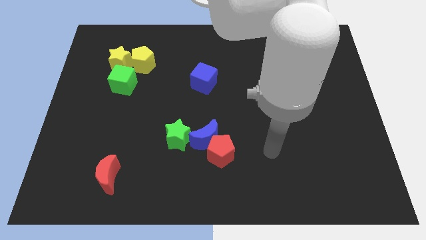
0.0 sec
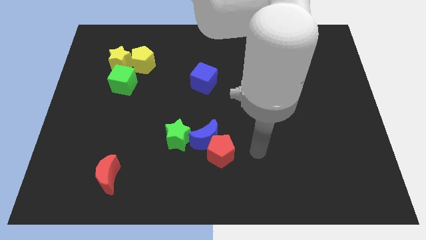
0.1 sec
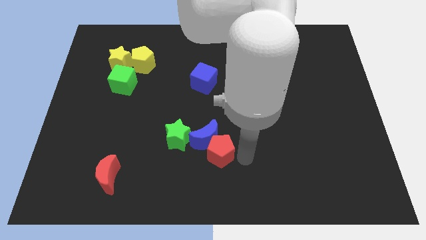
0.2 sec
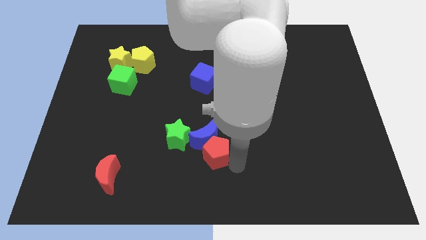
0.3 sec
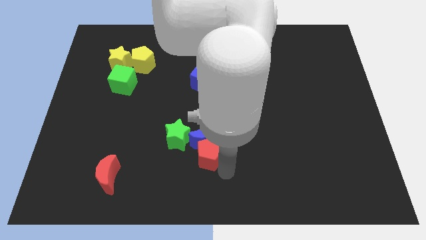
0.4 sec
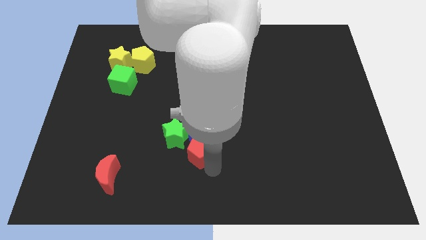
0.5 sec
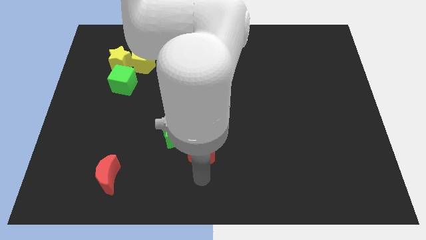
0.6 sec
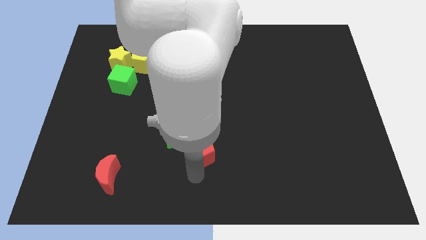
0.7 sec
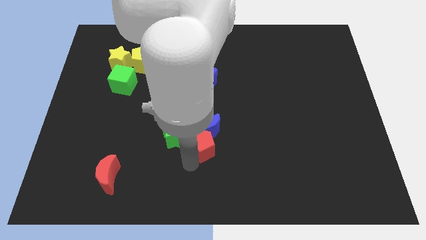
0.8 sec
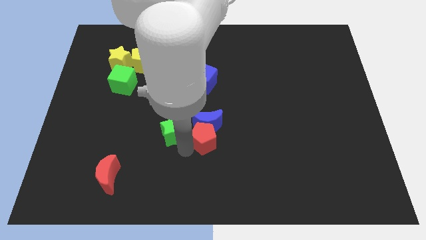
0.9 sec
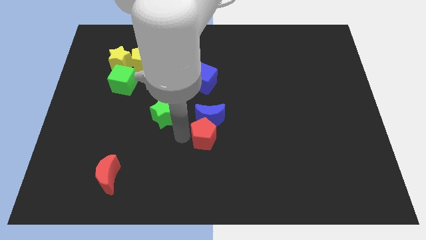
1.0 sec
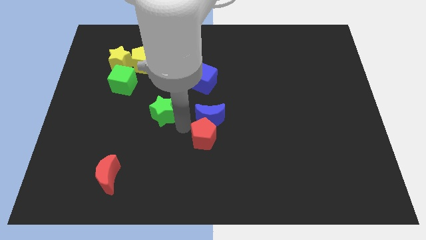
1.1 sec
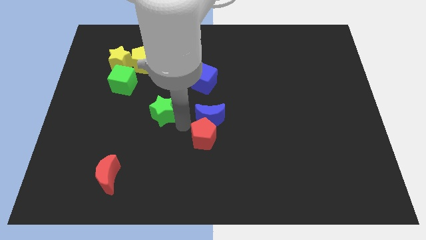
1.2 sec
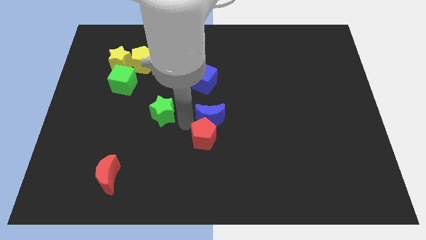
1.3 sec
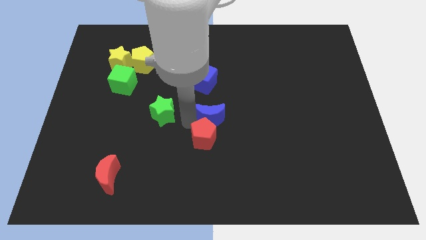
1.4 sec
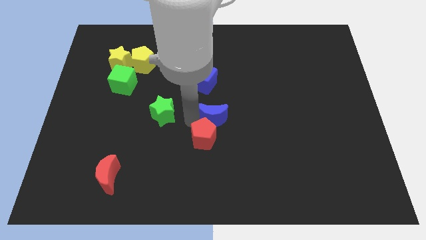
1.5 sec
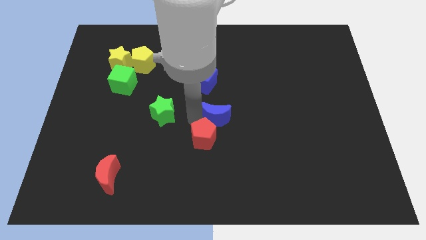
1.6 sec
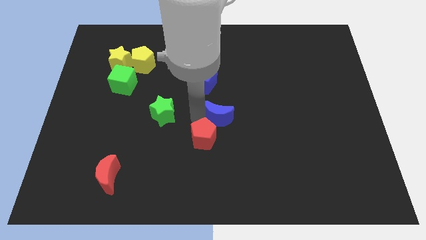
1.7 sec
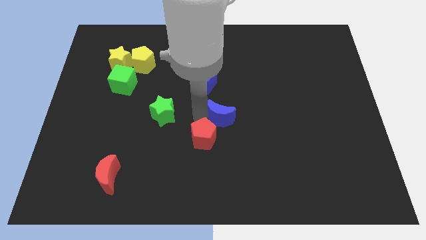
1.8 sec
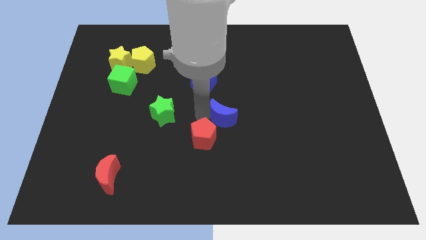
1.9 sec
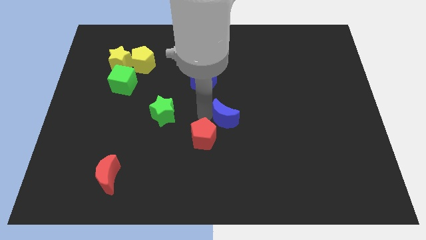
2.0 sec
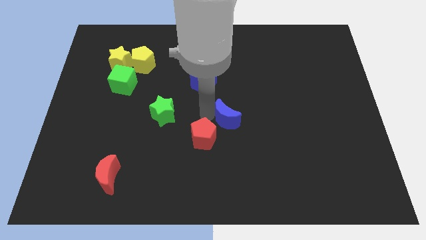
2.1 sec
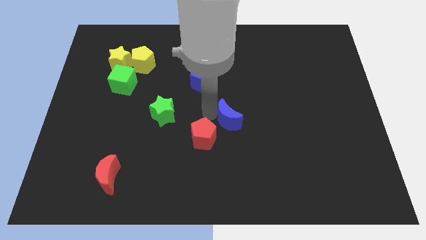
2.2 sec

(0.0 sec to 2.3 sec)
pull the blue moon apart from the red pentagon and green star

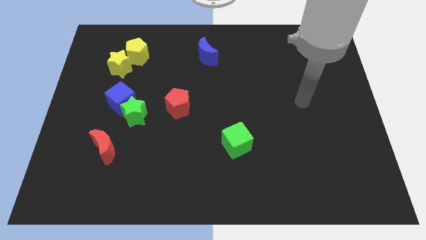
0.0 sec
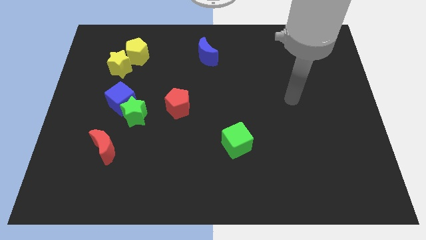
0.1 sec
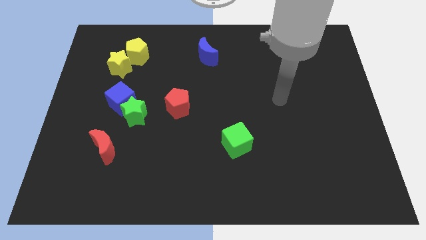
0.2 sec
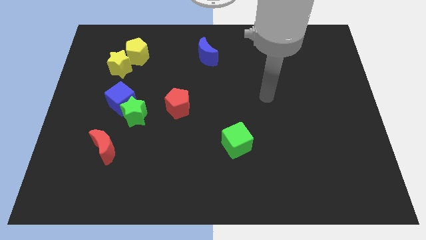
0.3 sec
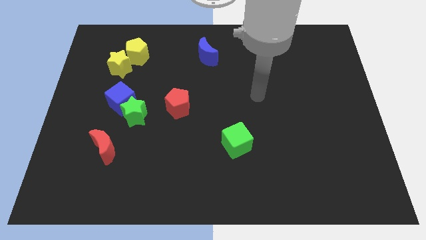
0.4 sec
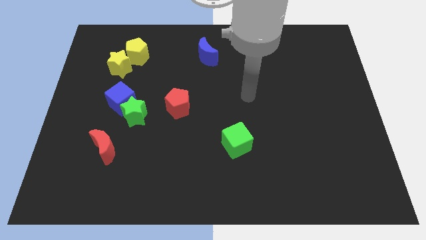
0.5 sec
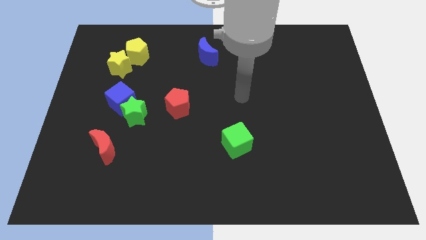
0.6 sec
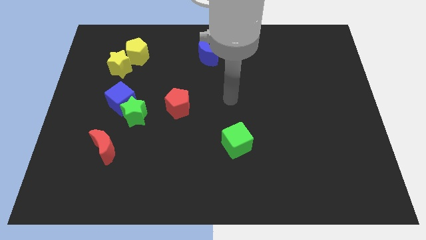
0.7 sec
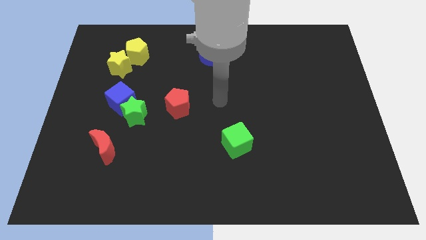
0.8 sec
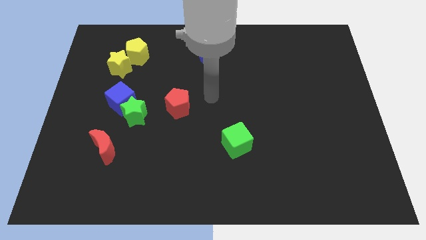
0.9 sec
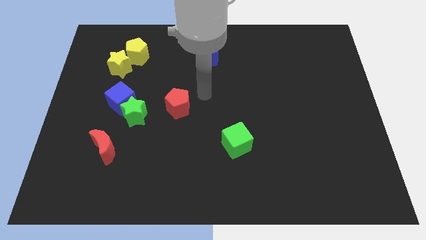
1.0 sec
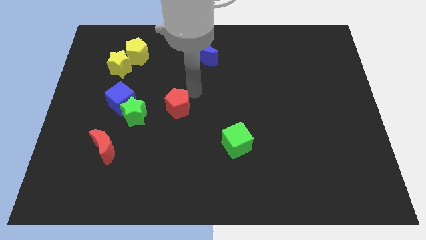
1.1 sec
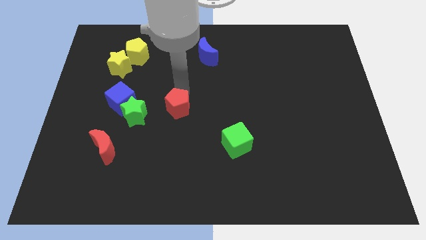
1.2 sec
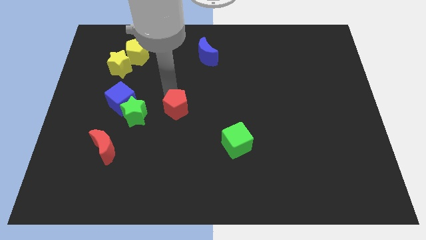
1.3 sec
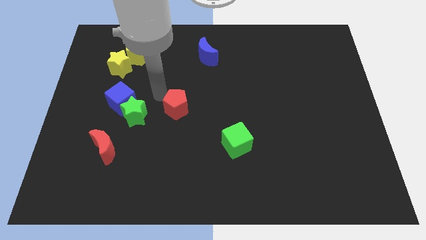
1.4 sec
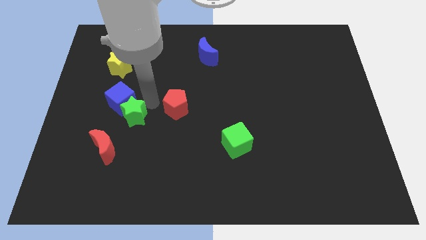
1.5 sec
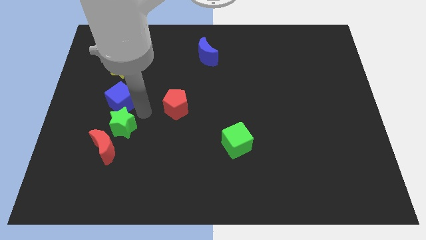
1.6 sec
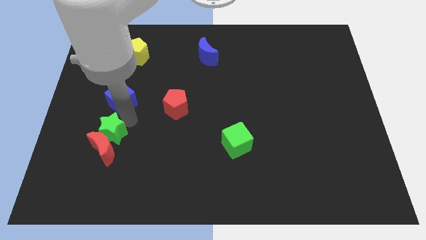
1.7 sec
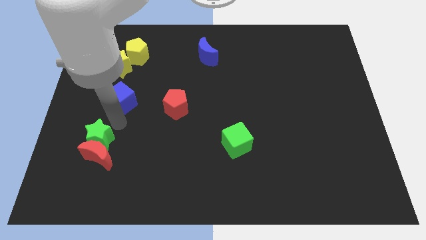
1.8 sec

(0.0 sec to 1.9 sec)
separate the blue cube from the green star

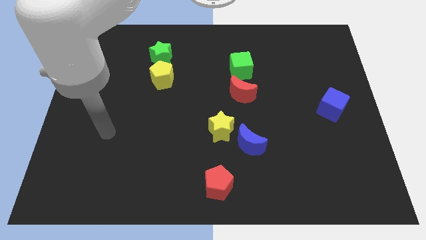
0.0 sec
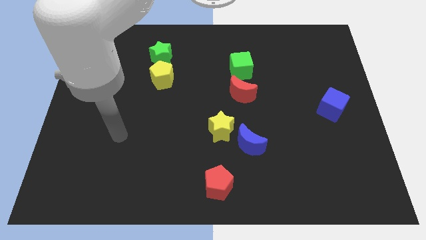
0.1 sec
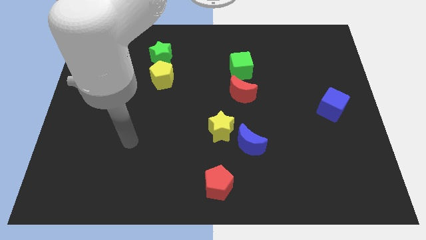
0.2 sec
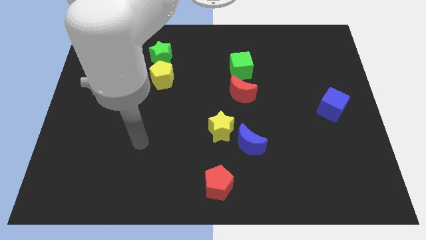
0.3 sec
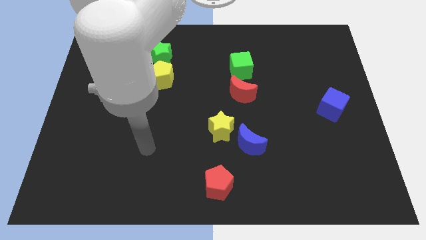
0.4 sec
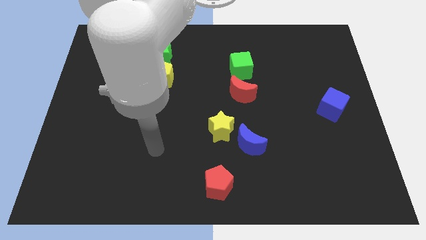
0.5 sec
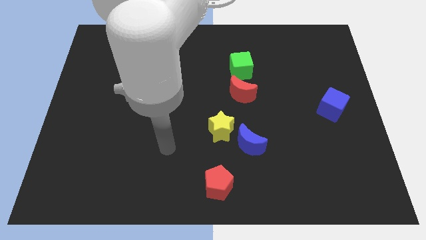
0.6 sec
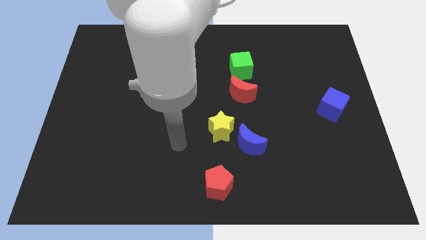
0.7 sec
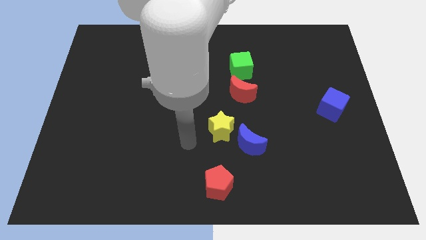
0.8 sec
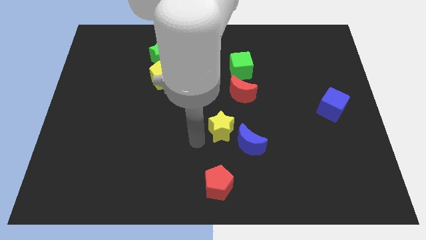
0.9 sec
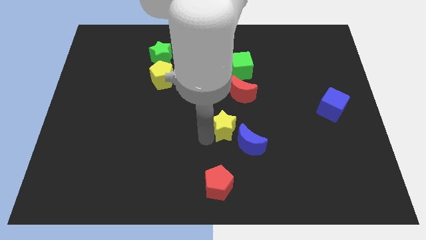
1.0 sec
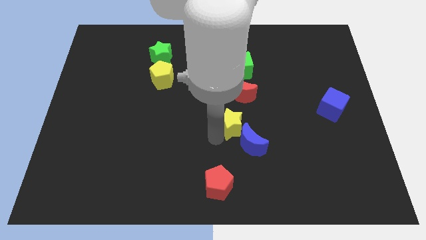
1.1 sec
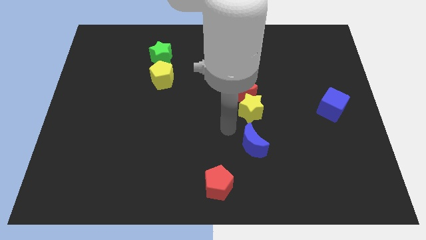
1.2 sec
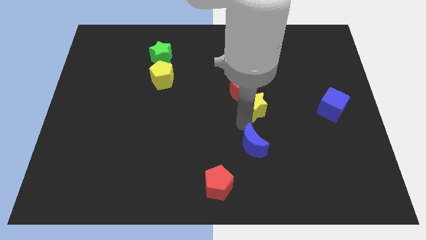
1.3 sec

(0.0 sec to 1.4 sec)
pull the blue moon apart from the yellow star

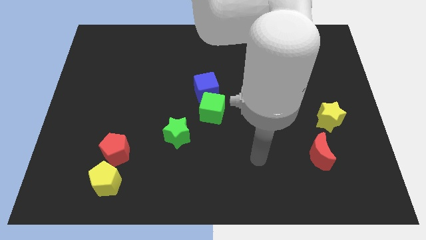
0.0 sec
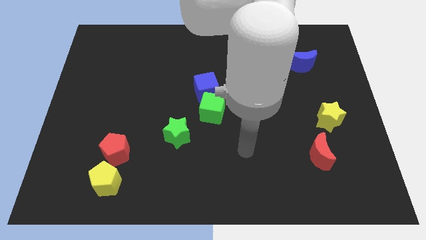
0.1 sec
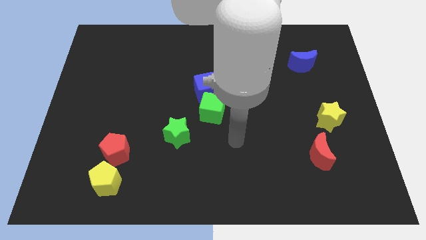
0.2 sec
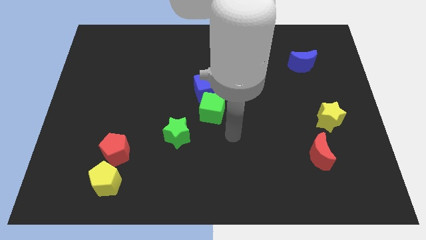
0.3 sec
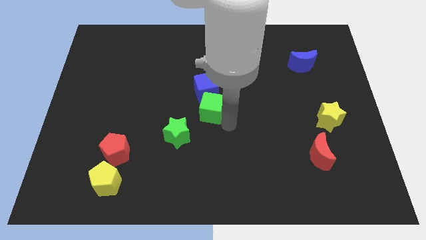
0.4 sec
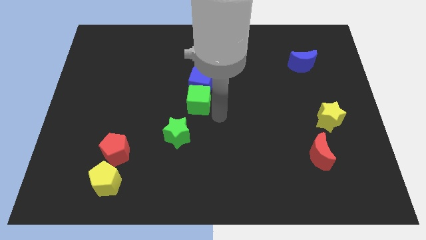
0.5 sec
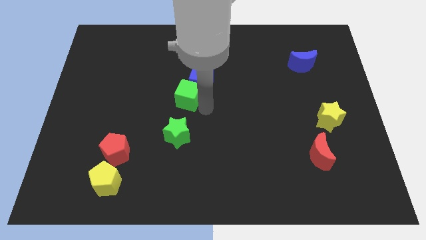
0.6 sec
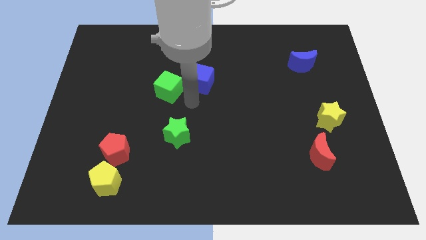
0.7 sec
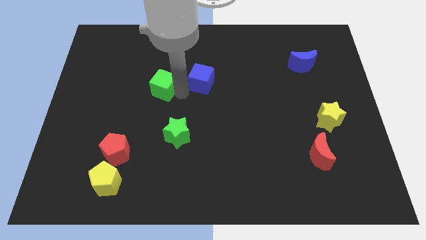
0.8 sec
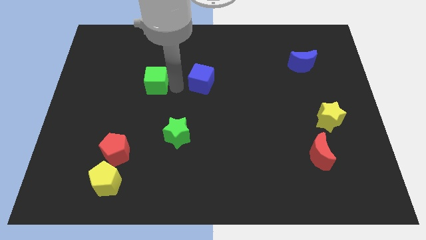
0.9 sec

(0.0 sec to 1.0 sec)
pull the blue cube apart from the green cube

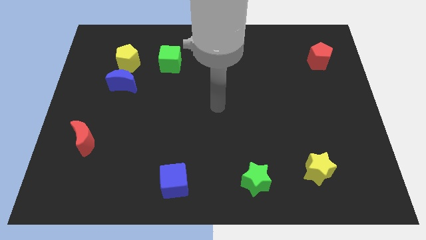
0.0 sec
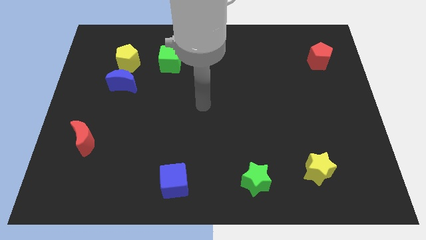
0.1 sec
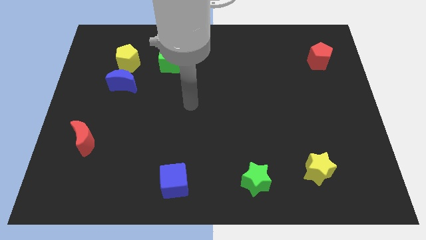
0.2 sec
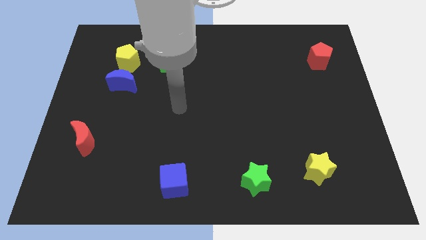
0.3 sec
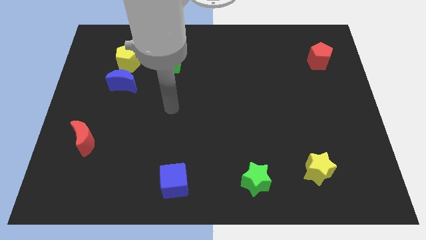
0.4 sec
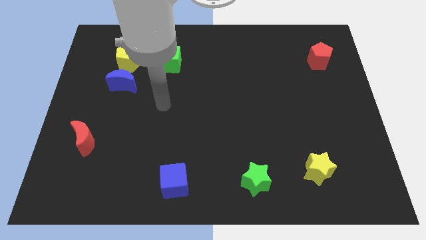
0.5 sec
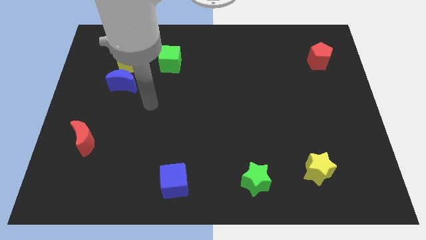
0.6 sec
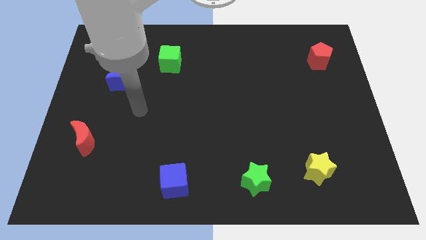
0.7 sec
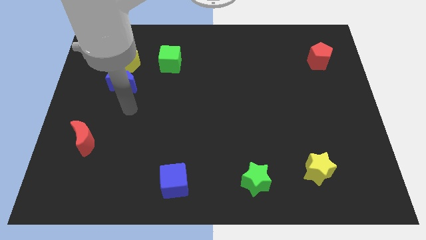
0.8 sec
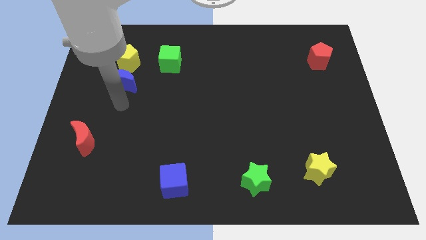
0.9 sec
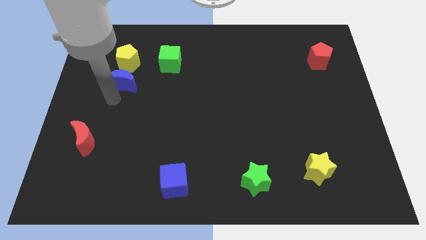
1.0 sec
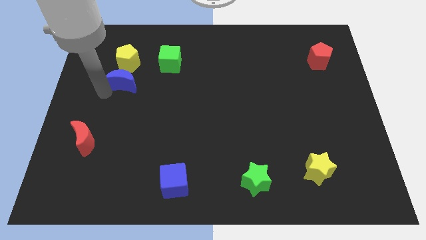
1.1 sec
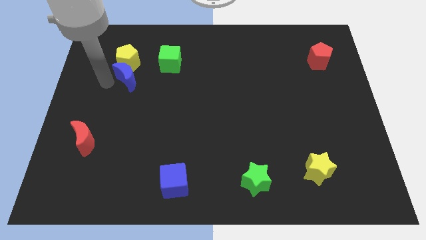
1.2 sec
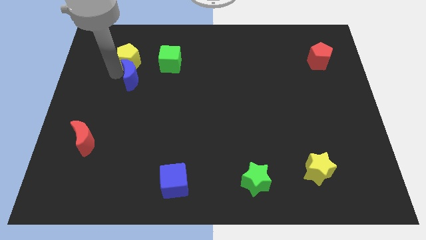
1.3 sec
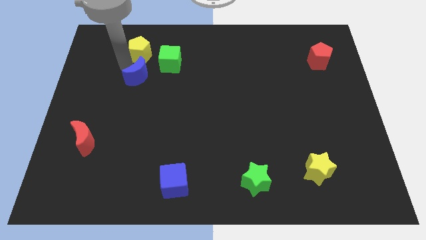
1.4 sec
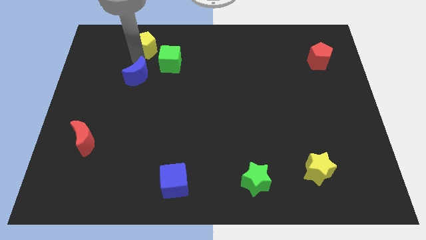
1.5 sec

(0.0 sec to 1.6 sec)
separate the blue moon from the yellow pentagon

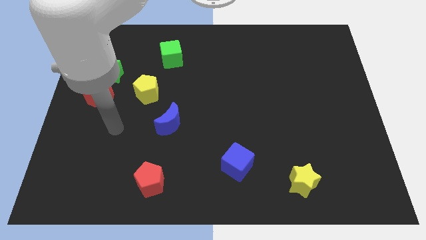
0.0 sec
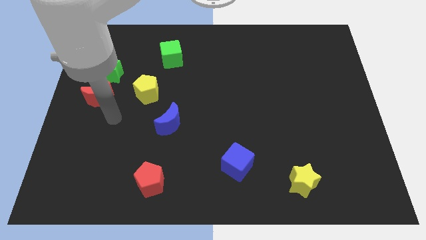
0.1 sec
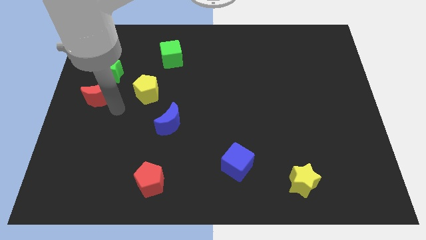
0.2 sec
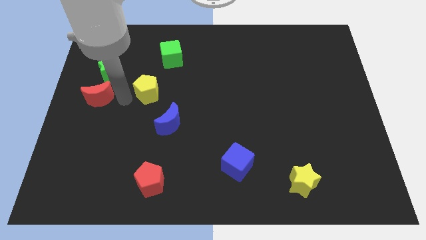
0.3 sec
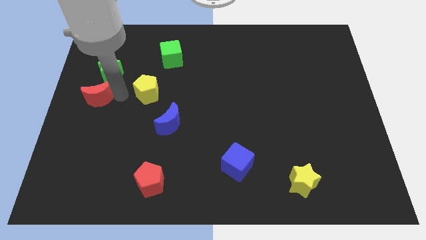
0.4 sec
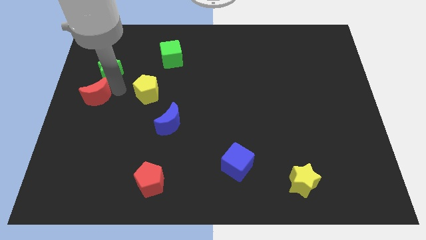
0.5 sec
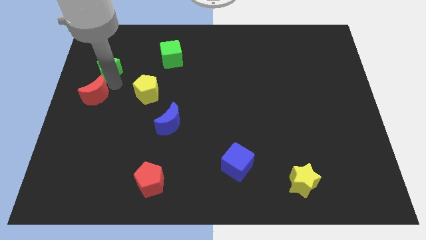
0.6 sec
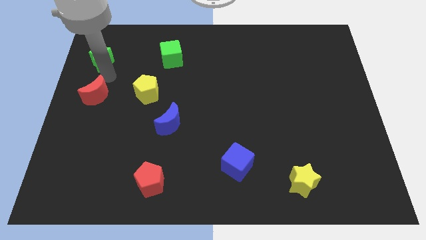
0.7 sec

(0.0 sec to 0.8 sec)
move the red moon away from the green star

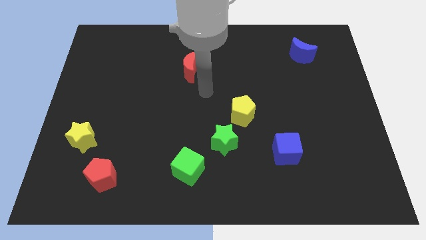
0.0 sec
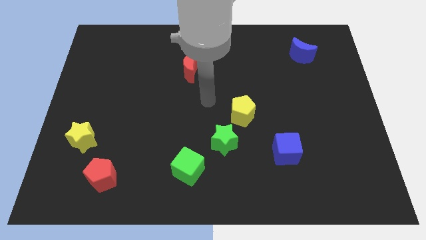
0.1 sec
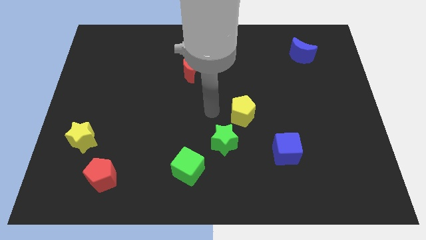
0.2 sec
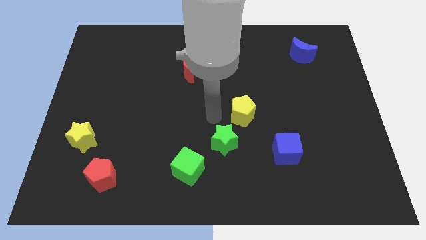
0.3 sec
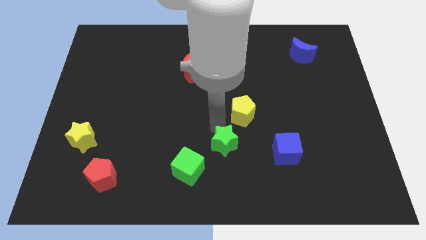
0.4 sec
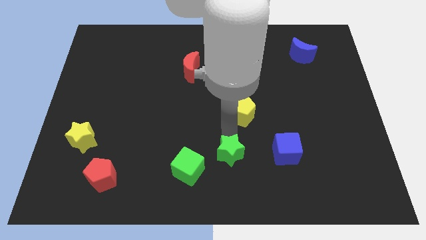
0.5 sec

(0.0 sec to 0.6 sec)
separate the yellow pentagon from the green star
